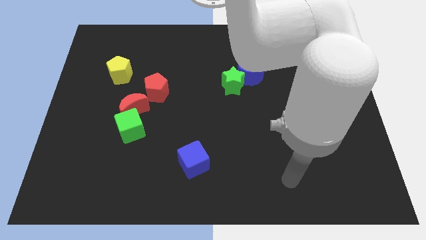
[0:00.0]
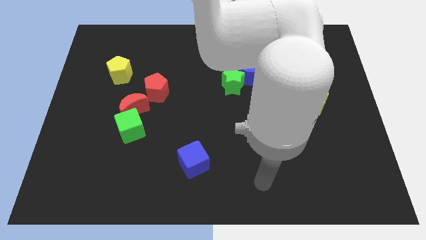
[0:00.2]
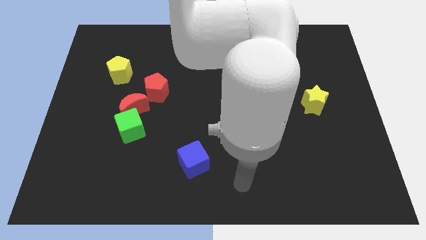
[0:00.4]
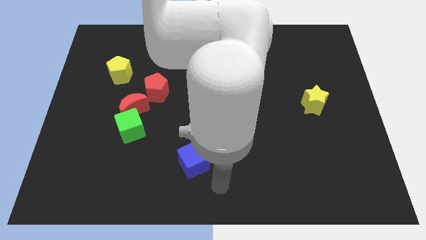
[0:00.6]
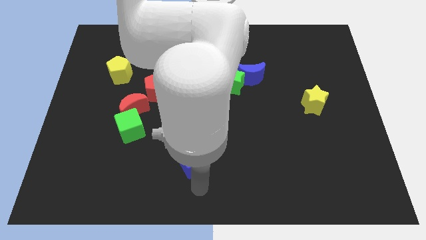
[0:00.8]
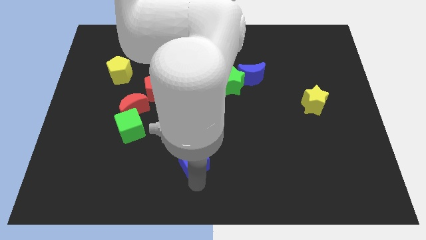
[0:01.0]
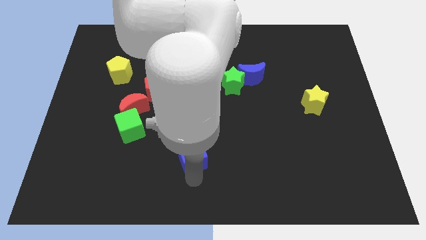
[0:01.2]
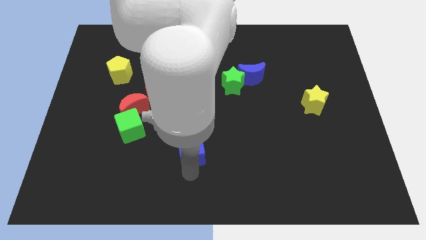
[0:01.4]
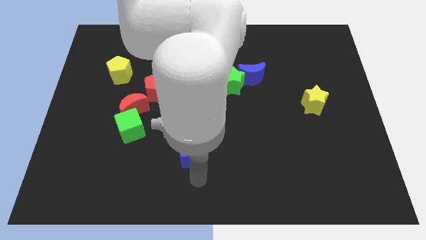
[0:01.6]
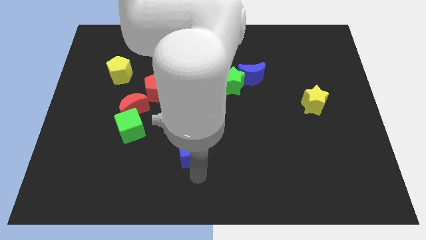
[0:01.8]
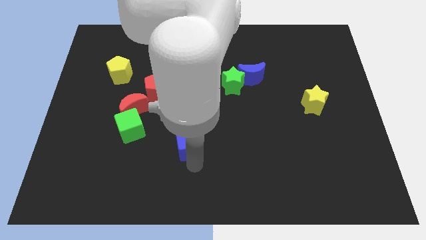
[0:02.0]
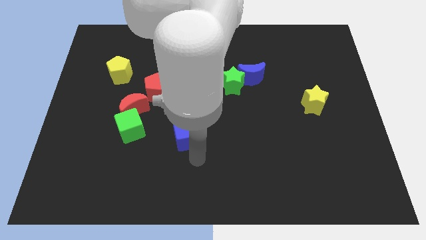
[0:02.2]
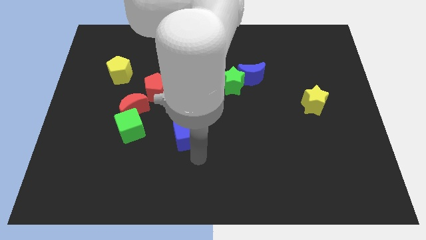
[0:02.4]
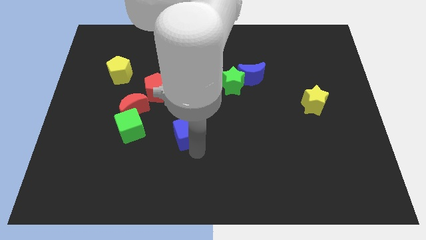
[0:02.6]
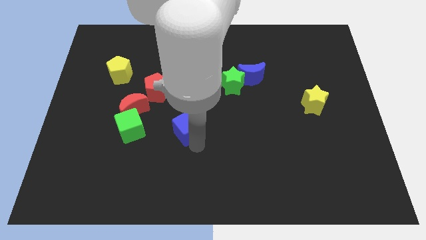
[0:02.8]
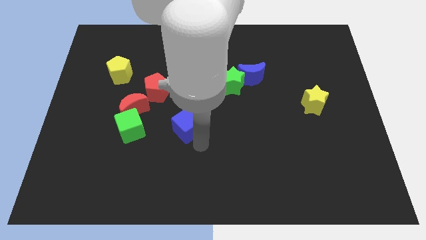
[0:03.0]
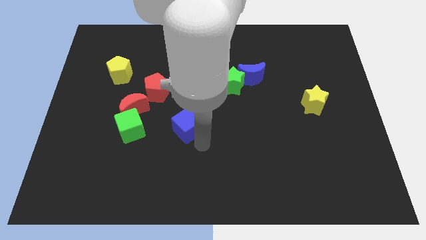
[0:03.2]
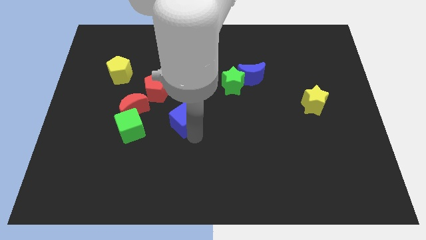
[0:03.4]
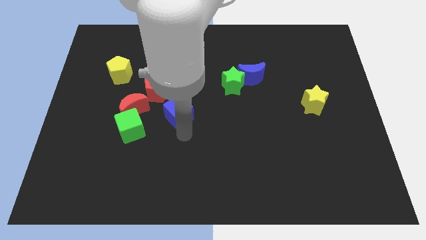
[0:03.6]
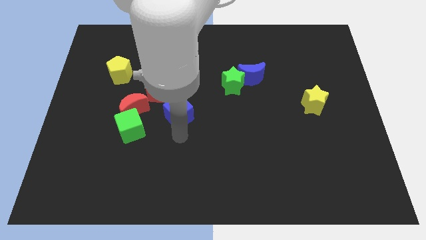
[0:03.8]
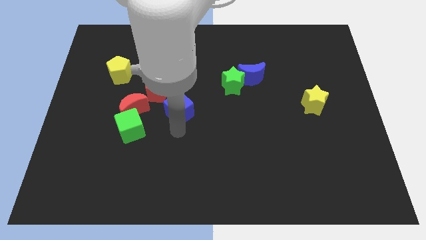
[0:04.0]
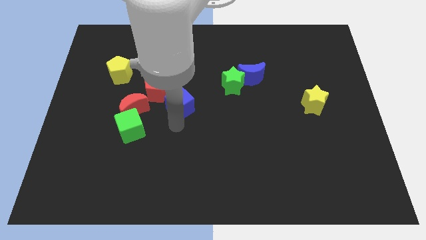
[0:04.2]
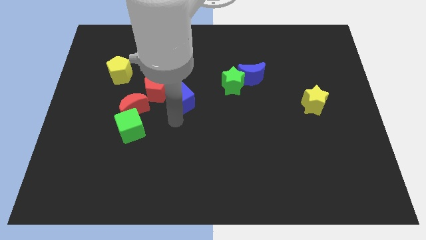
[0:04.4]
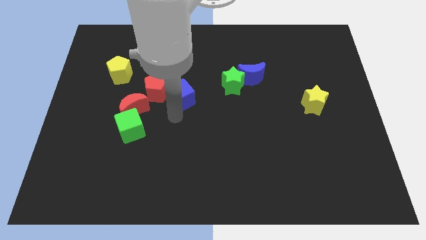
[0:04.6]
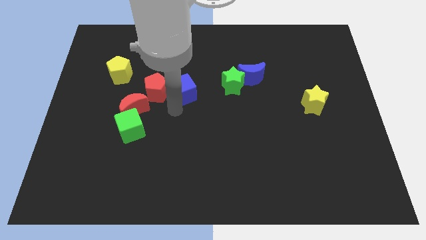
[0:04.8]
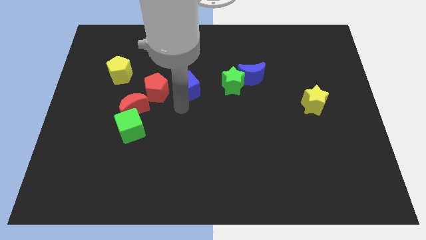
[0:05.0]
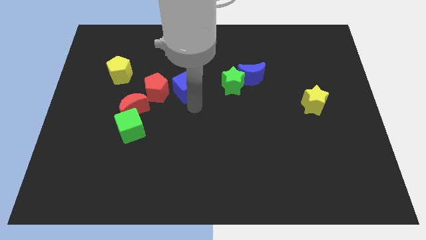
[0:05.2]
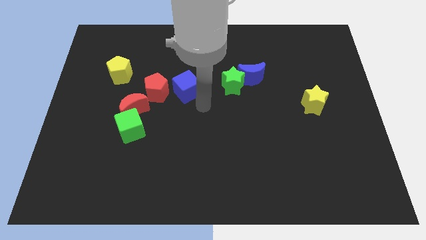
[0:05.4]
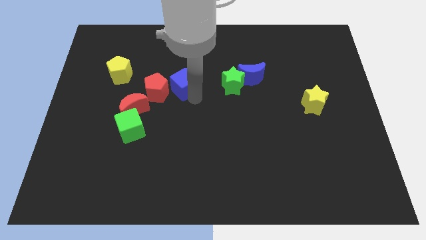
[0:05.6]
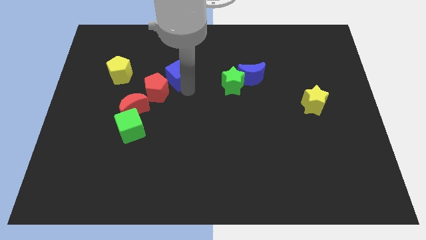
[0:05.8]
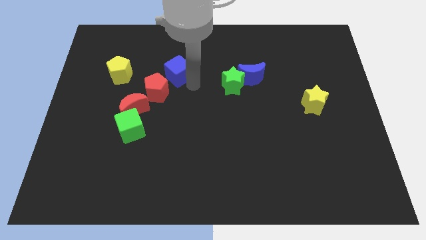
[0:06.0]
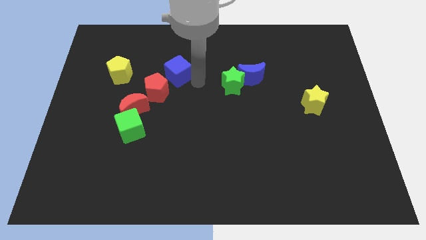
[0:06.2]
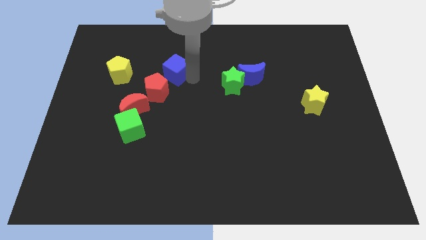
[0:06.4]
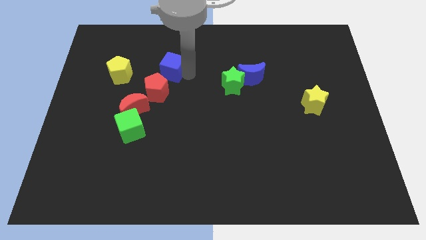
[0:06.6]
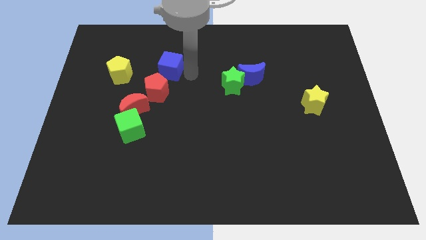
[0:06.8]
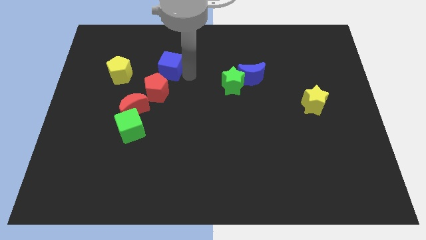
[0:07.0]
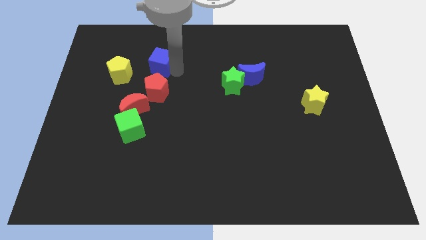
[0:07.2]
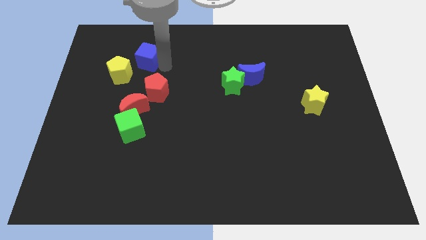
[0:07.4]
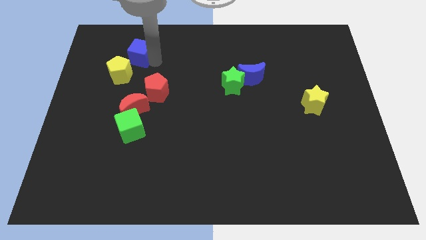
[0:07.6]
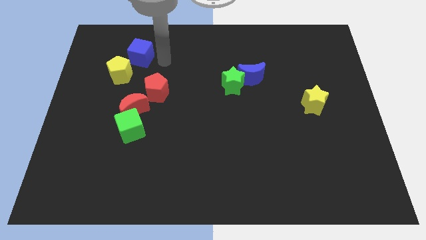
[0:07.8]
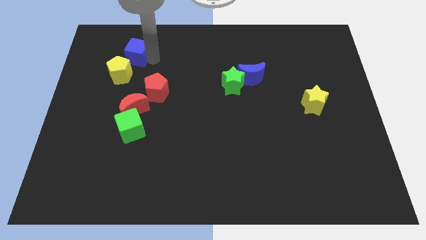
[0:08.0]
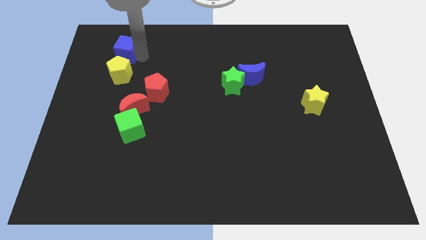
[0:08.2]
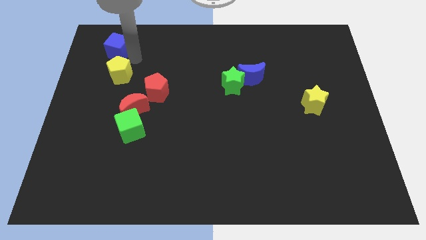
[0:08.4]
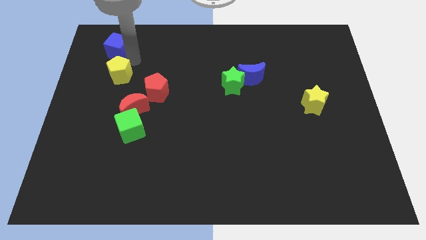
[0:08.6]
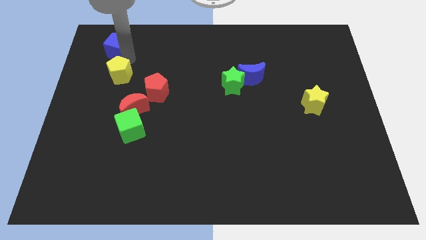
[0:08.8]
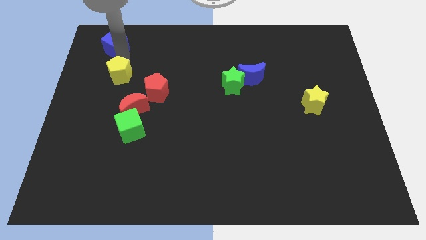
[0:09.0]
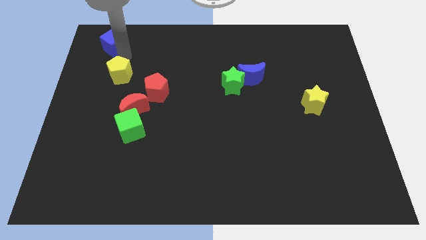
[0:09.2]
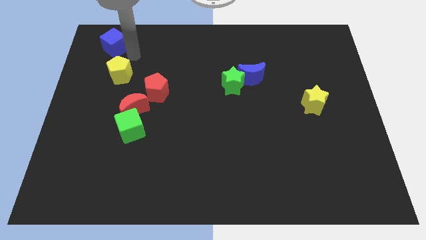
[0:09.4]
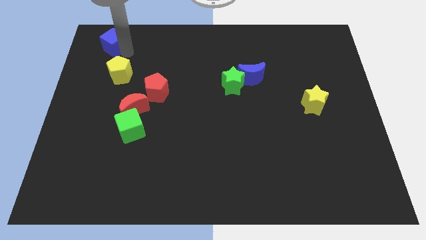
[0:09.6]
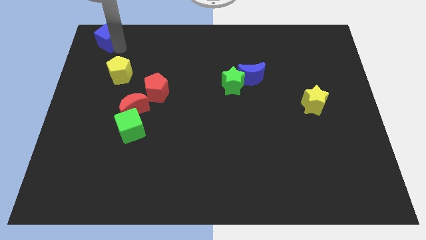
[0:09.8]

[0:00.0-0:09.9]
move the blue cube to the upper left corner

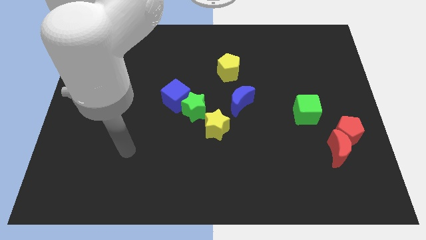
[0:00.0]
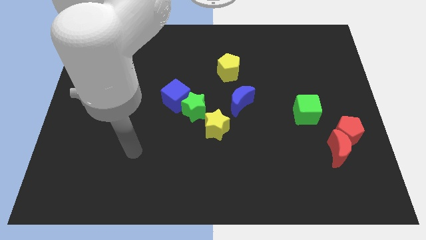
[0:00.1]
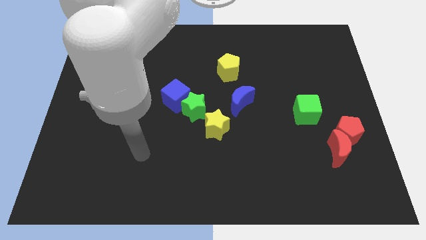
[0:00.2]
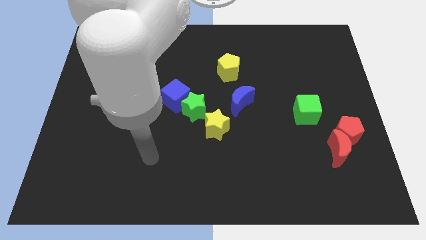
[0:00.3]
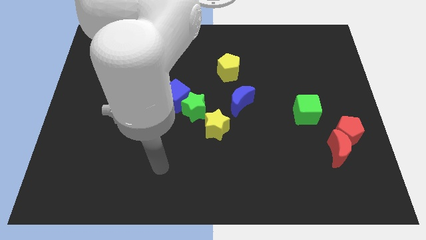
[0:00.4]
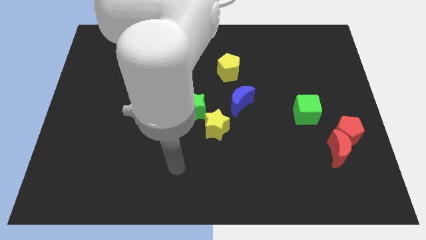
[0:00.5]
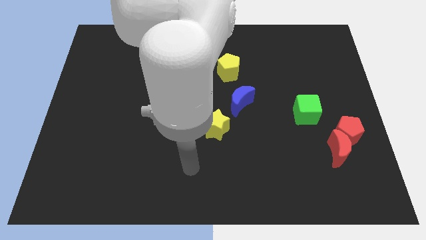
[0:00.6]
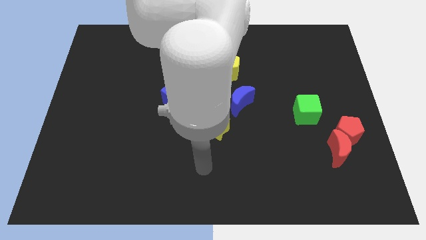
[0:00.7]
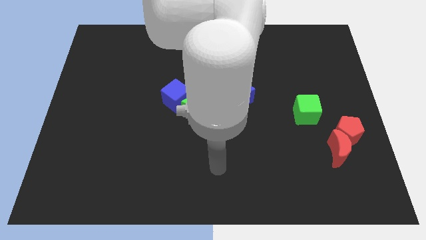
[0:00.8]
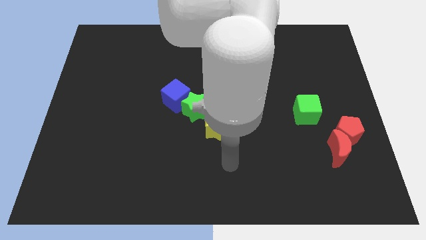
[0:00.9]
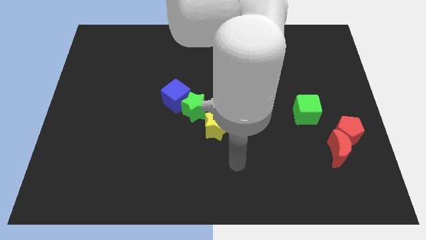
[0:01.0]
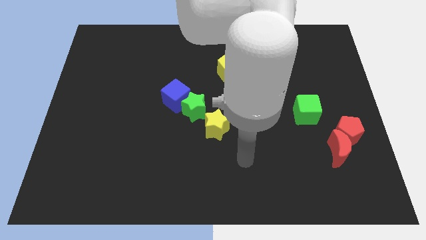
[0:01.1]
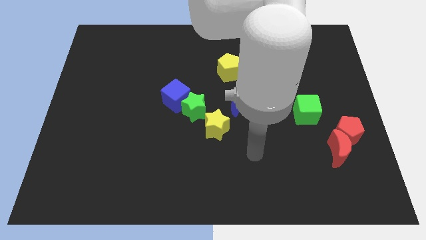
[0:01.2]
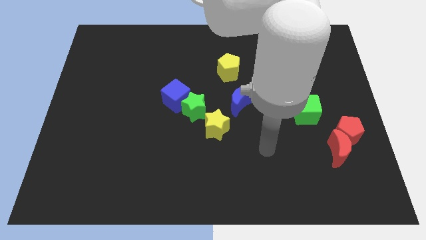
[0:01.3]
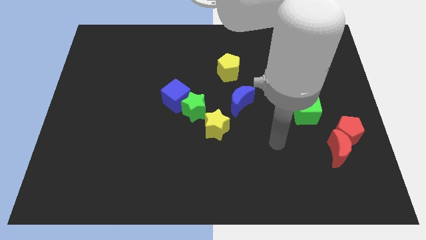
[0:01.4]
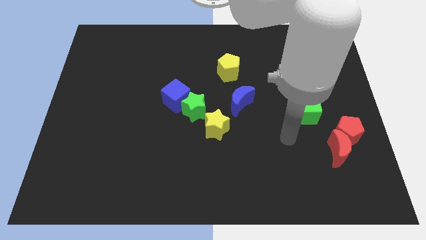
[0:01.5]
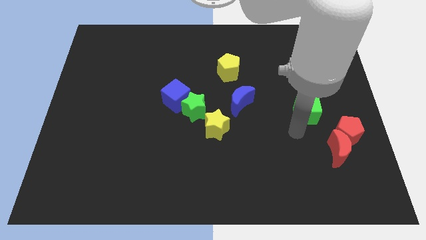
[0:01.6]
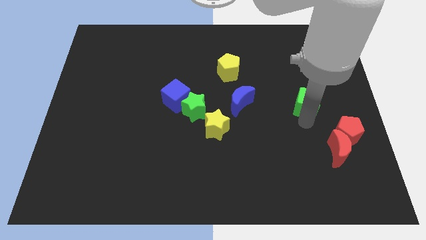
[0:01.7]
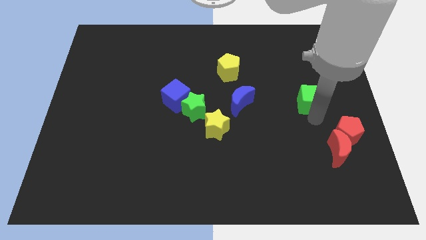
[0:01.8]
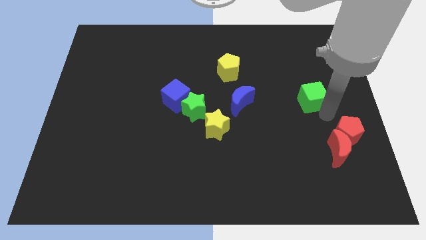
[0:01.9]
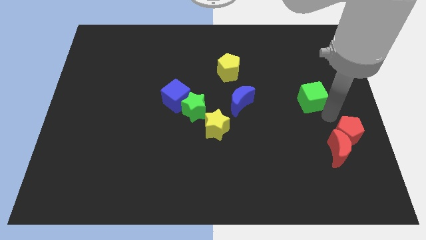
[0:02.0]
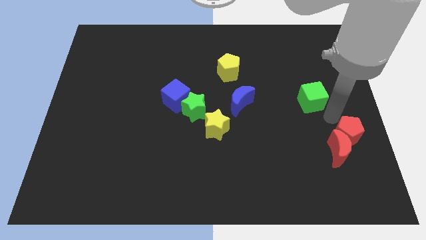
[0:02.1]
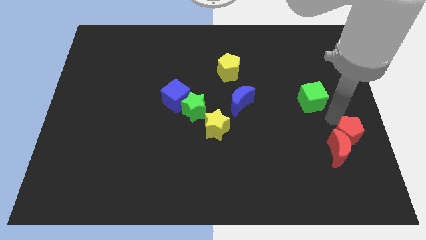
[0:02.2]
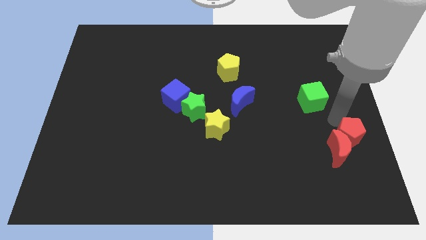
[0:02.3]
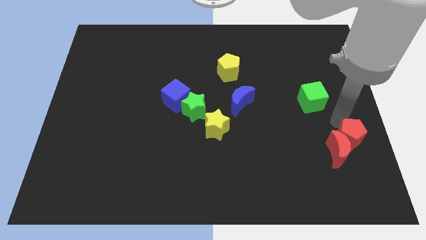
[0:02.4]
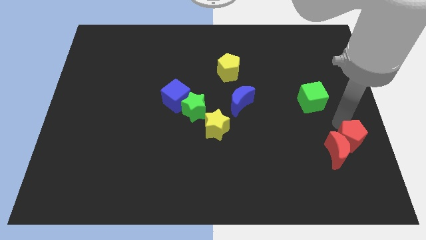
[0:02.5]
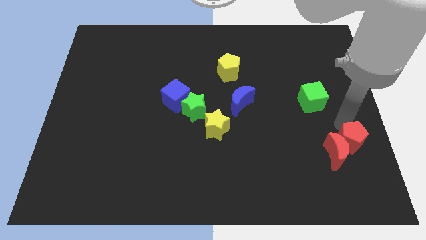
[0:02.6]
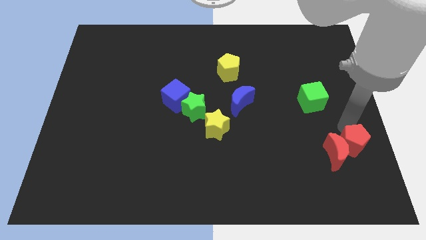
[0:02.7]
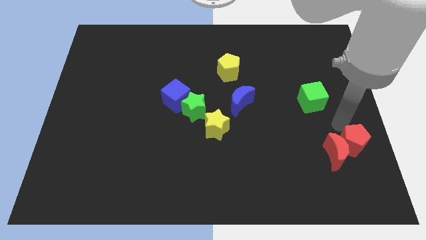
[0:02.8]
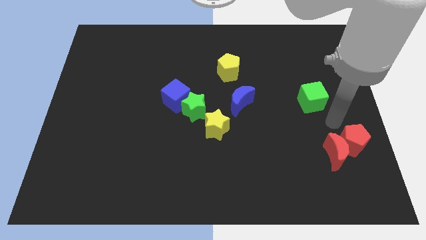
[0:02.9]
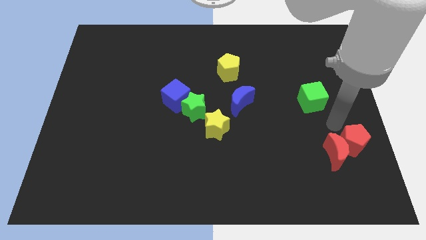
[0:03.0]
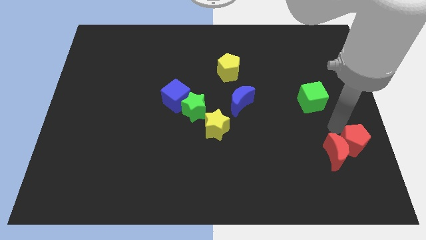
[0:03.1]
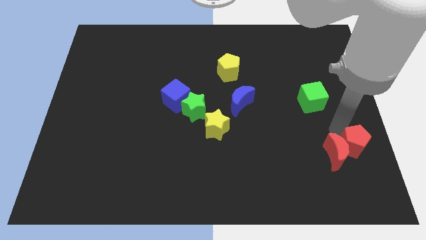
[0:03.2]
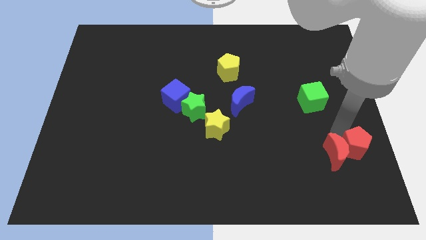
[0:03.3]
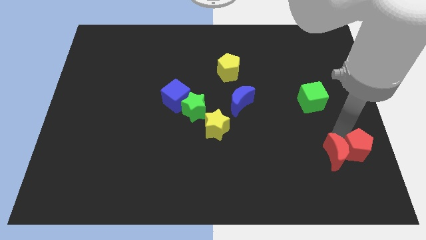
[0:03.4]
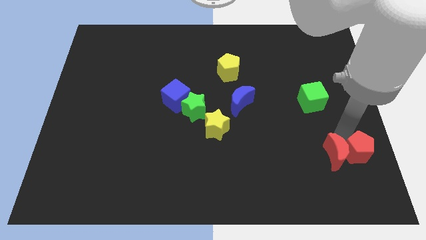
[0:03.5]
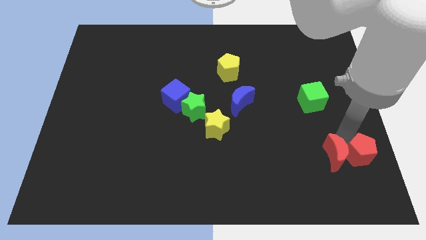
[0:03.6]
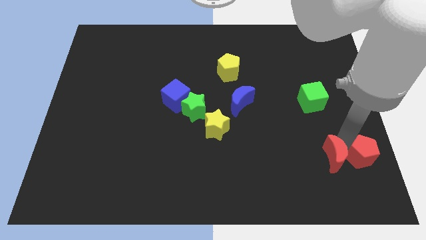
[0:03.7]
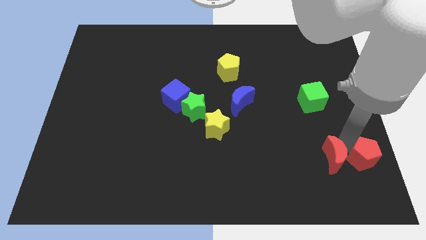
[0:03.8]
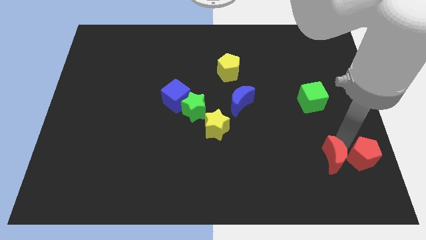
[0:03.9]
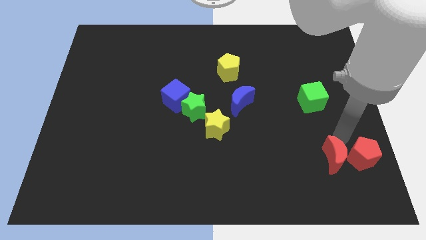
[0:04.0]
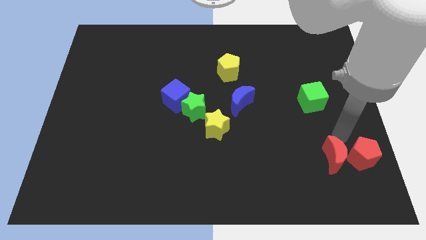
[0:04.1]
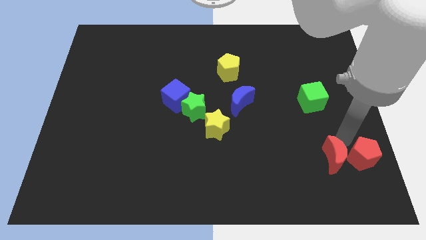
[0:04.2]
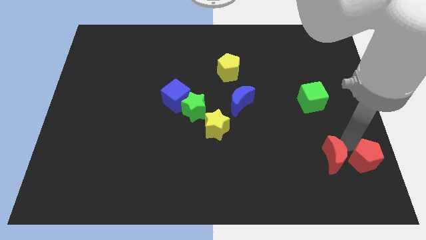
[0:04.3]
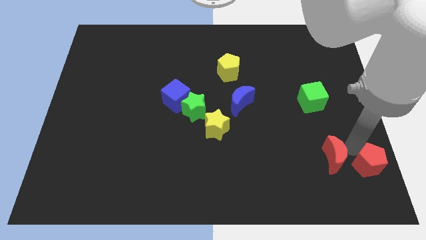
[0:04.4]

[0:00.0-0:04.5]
slide the red pentagon to the bottom right corner
